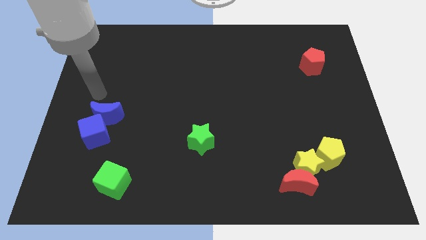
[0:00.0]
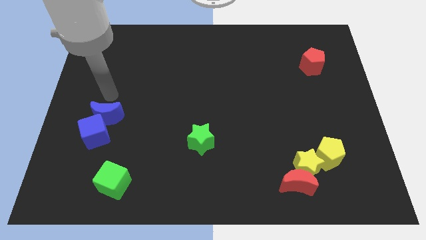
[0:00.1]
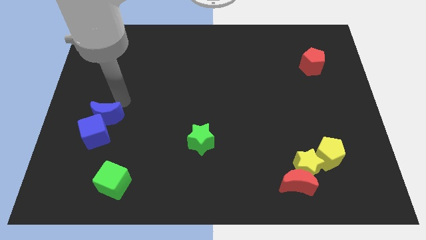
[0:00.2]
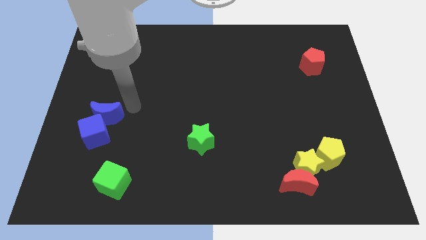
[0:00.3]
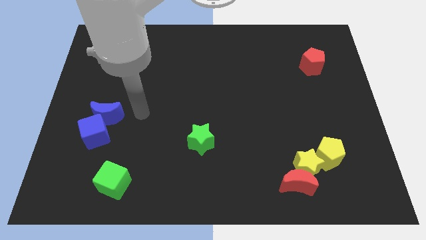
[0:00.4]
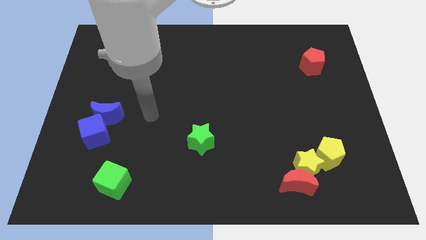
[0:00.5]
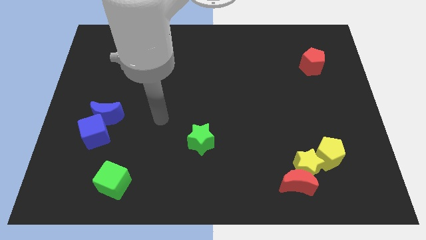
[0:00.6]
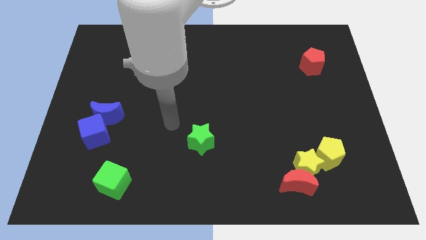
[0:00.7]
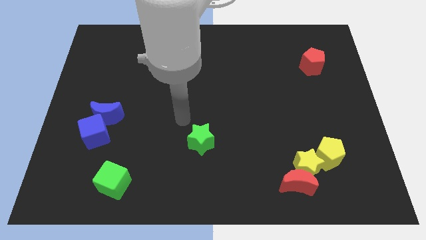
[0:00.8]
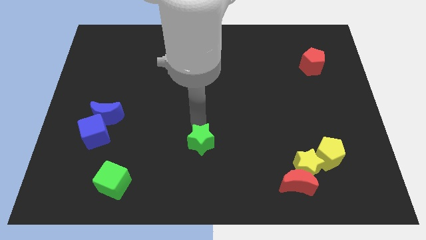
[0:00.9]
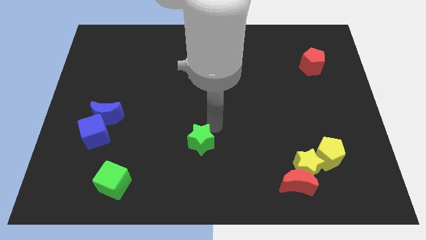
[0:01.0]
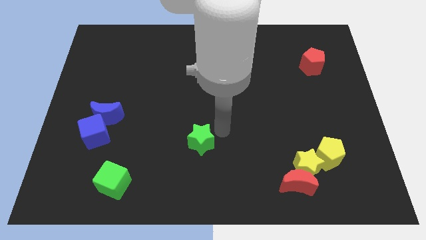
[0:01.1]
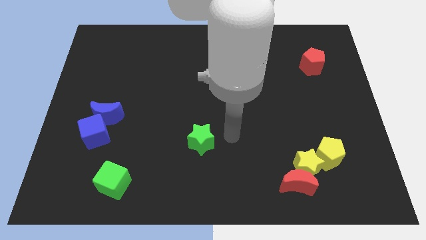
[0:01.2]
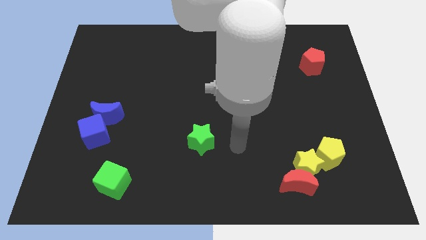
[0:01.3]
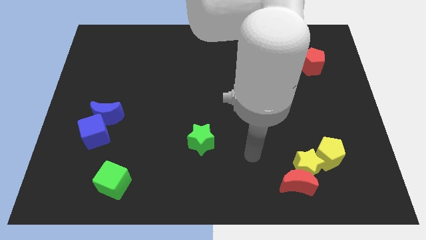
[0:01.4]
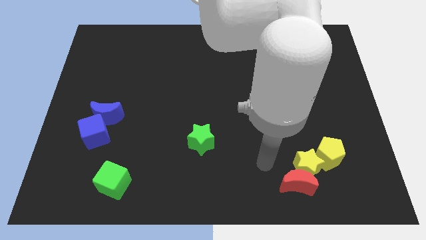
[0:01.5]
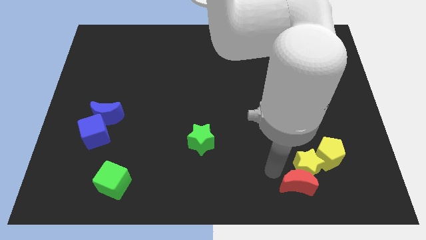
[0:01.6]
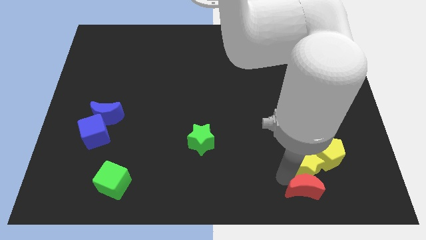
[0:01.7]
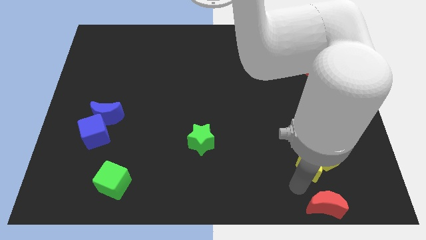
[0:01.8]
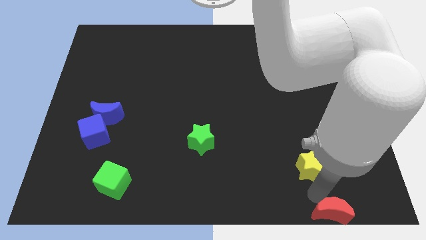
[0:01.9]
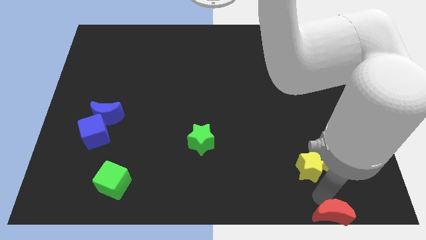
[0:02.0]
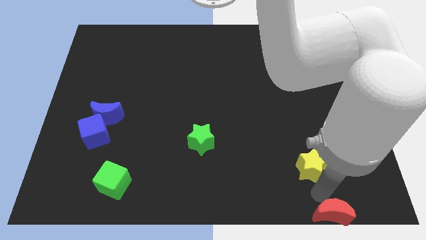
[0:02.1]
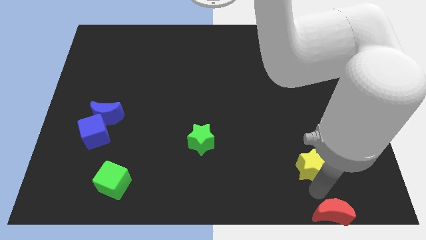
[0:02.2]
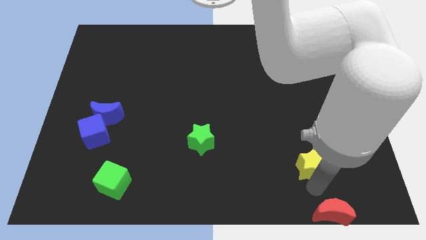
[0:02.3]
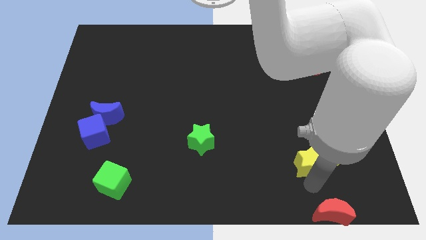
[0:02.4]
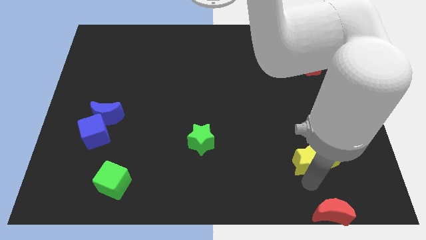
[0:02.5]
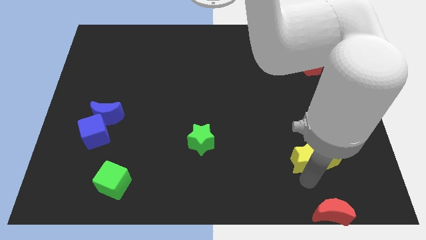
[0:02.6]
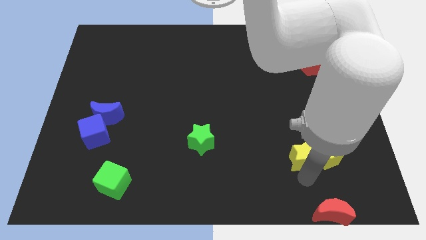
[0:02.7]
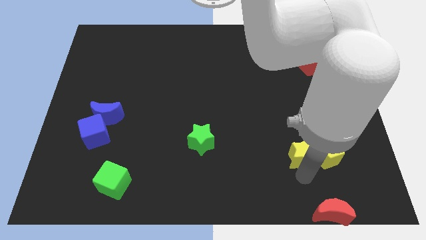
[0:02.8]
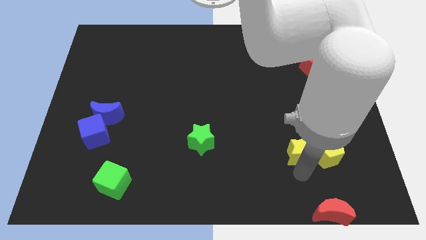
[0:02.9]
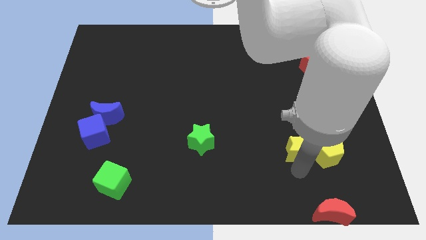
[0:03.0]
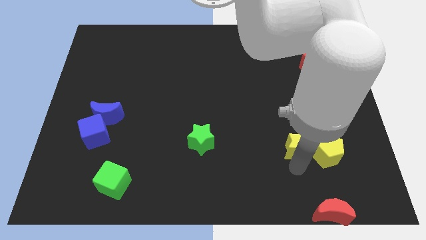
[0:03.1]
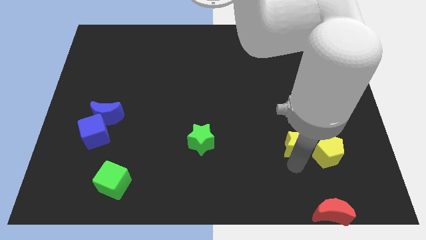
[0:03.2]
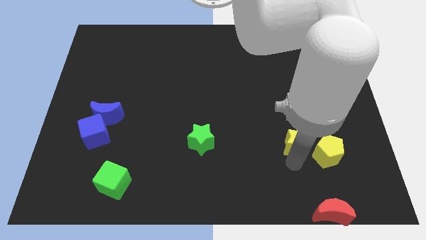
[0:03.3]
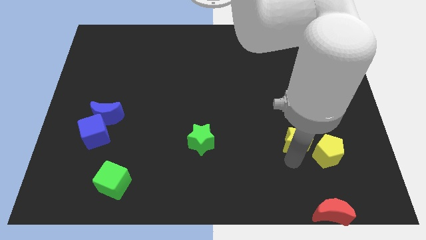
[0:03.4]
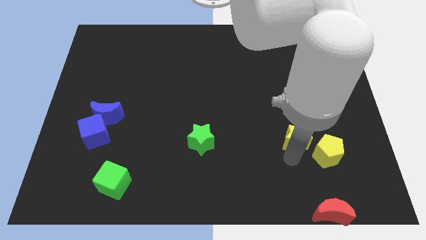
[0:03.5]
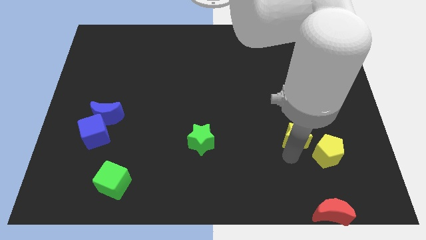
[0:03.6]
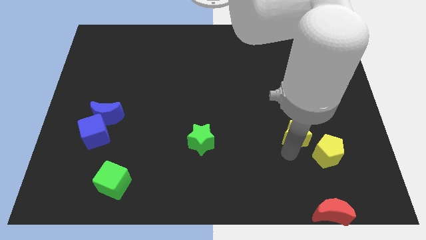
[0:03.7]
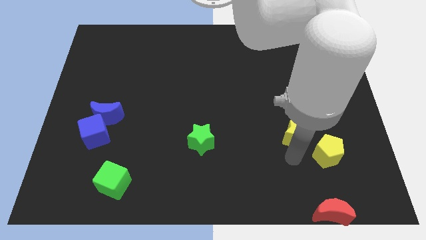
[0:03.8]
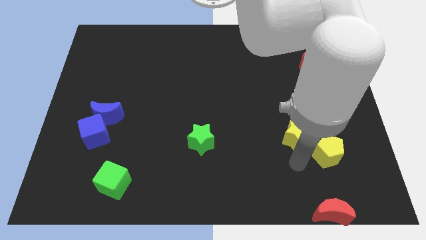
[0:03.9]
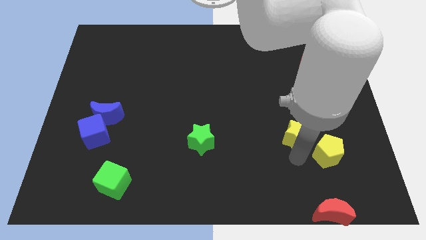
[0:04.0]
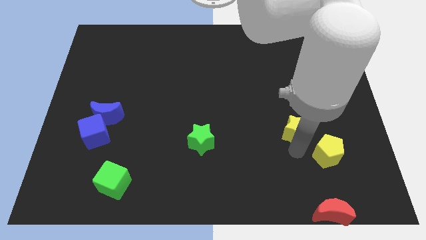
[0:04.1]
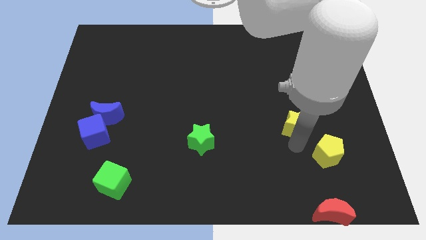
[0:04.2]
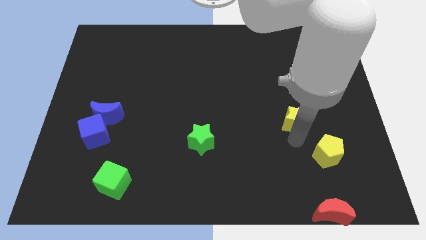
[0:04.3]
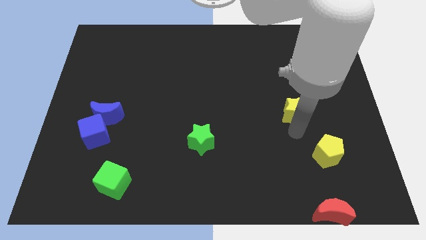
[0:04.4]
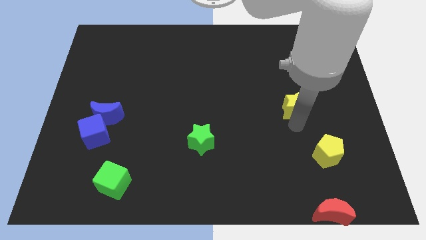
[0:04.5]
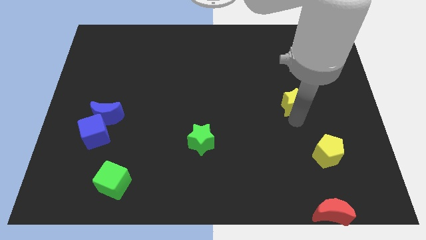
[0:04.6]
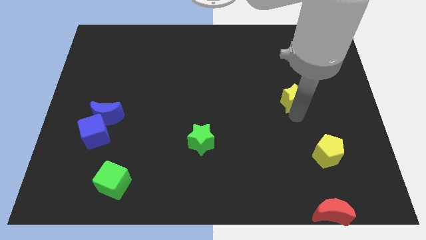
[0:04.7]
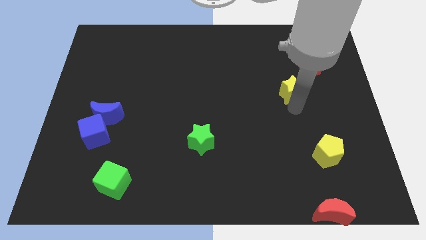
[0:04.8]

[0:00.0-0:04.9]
slide the yellow star upwards

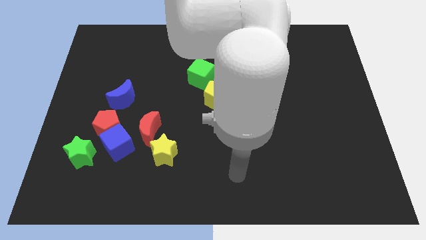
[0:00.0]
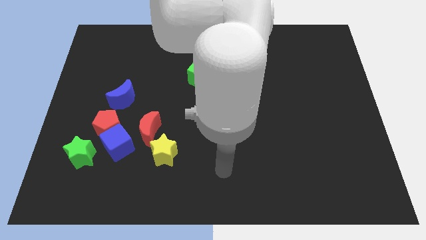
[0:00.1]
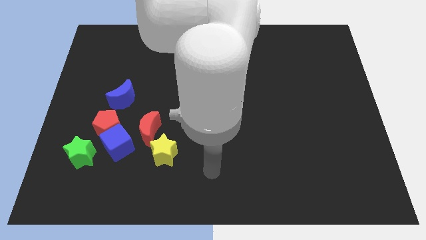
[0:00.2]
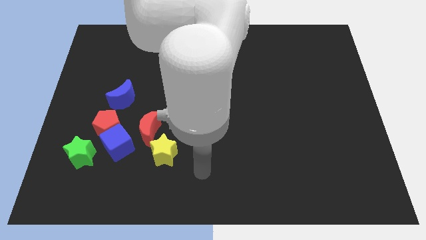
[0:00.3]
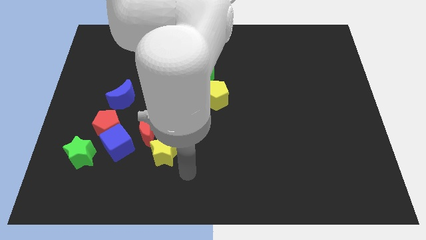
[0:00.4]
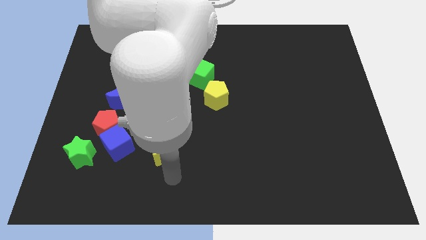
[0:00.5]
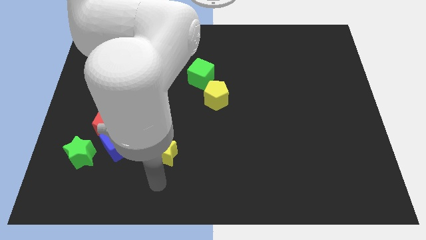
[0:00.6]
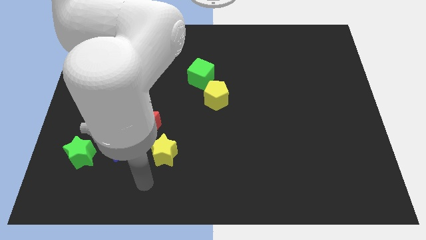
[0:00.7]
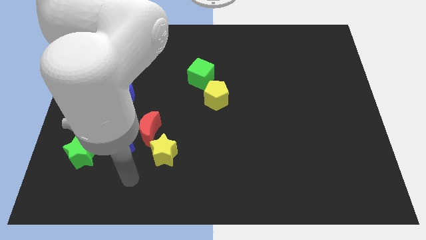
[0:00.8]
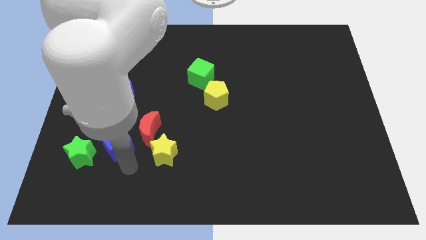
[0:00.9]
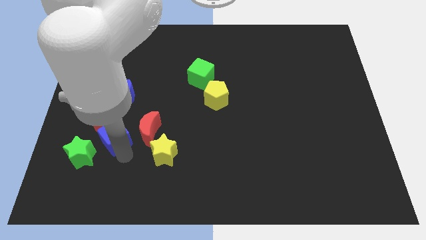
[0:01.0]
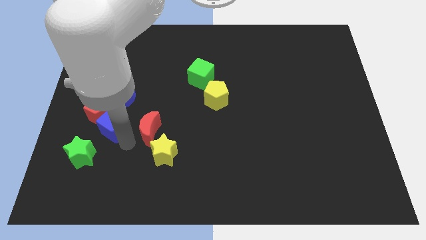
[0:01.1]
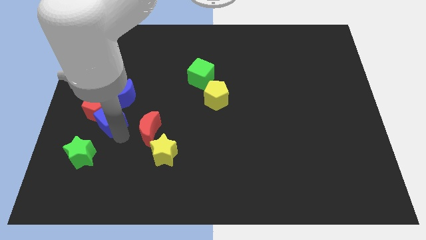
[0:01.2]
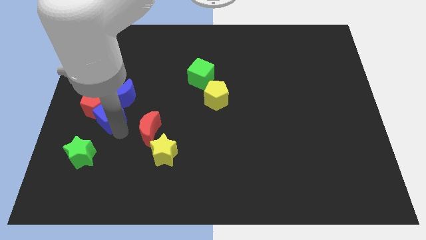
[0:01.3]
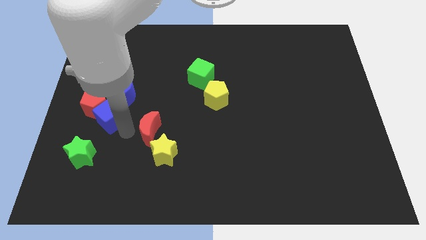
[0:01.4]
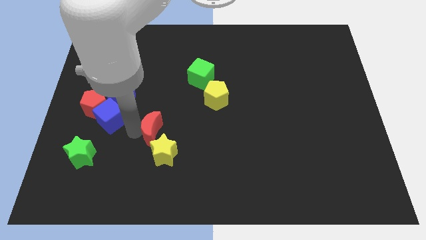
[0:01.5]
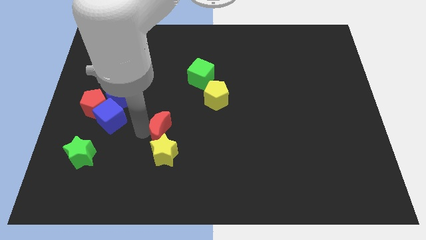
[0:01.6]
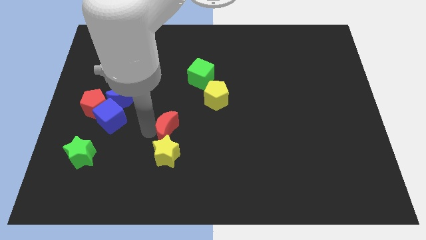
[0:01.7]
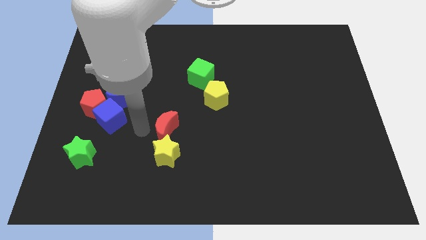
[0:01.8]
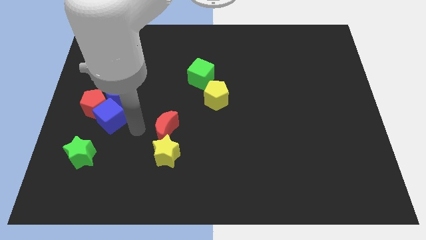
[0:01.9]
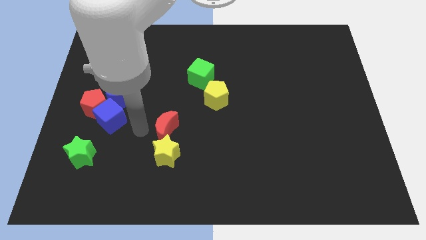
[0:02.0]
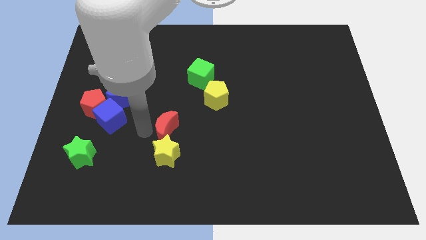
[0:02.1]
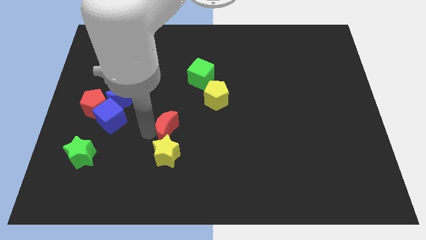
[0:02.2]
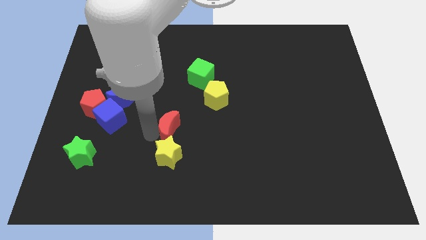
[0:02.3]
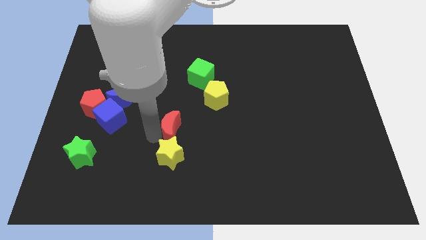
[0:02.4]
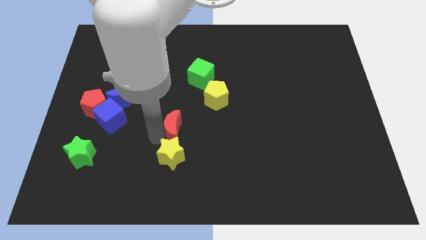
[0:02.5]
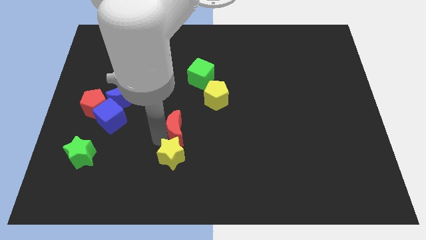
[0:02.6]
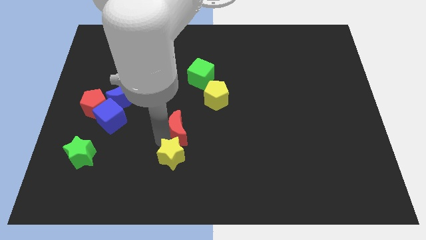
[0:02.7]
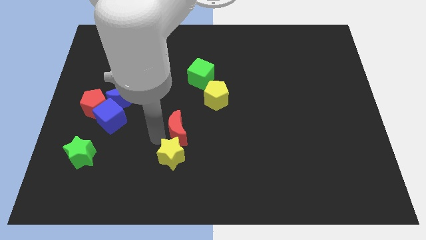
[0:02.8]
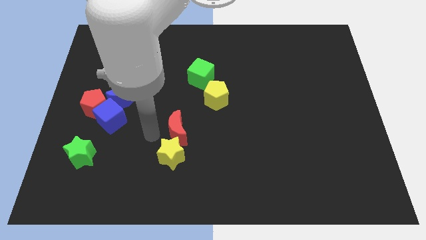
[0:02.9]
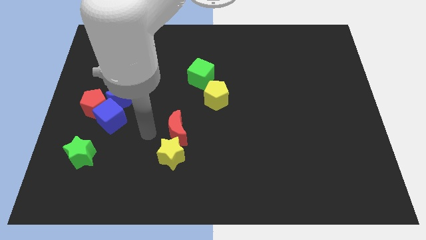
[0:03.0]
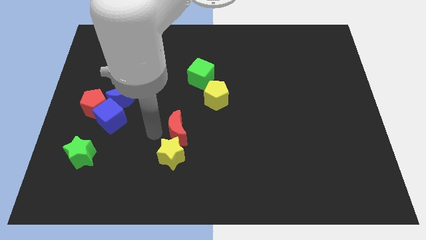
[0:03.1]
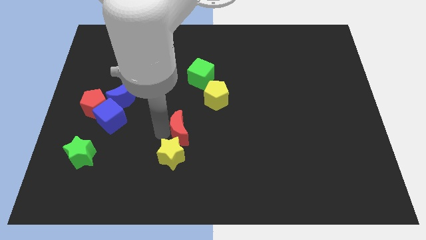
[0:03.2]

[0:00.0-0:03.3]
move the red moon slightly to the right
